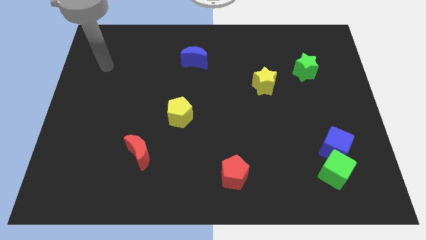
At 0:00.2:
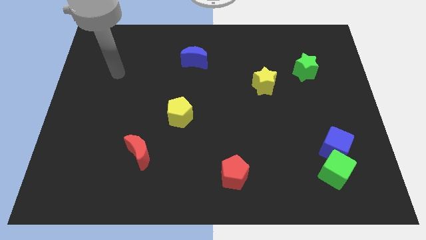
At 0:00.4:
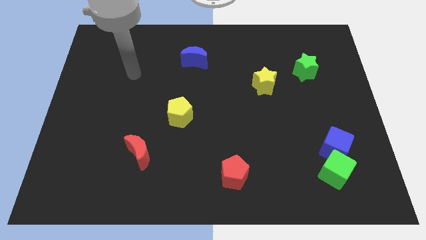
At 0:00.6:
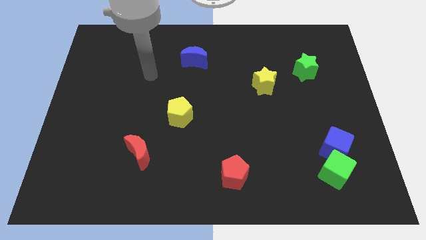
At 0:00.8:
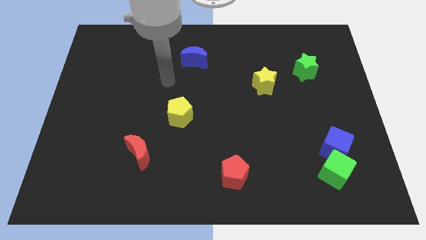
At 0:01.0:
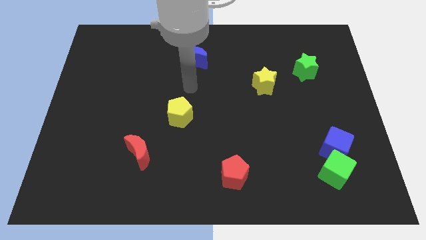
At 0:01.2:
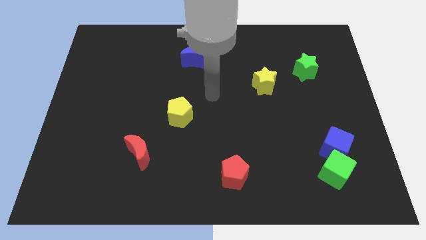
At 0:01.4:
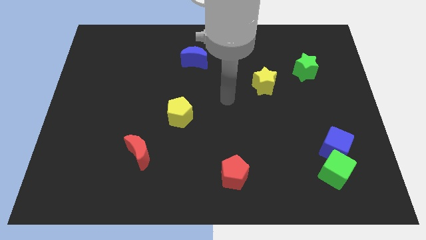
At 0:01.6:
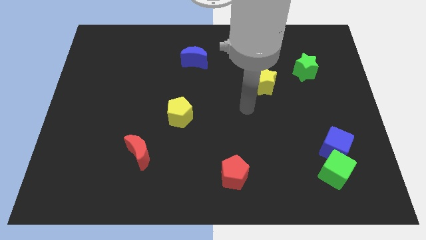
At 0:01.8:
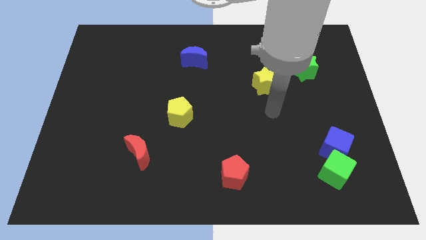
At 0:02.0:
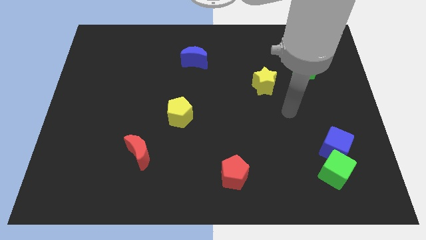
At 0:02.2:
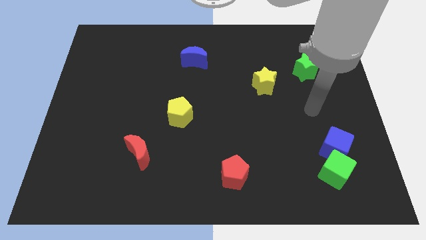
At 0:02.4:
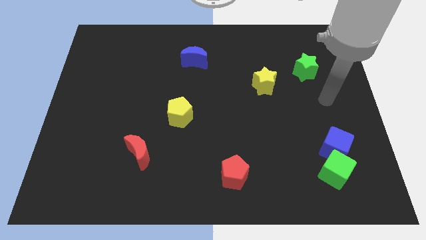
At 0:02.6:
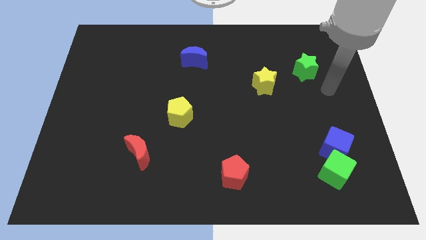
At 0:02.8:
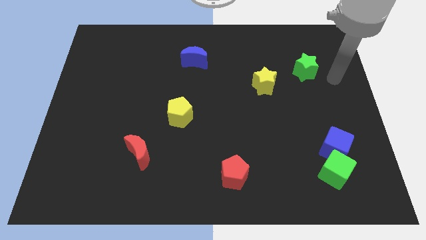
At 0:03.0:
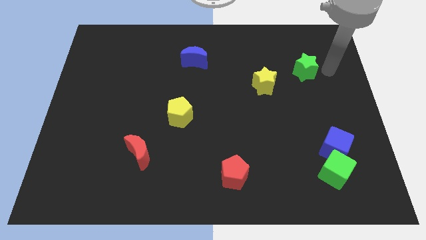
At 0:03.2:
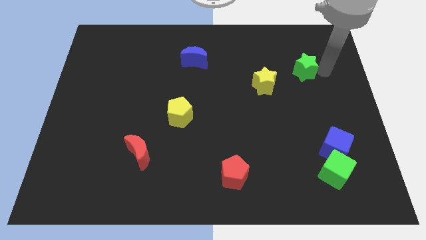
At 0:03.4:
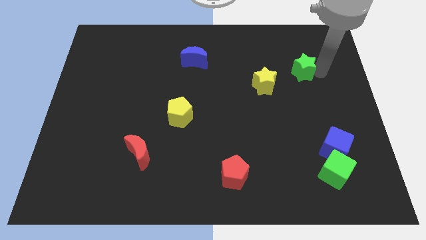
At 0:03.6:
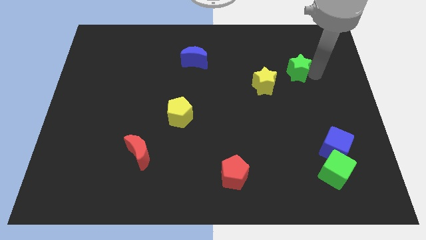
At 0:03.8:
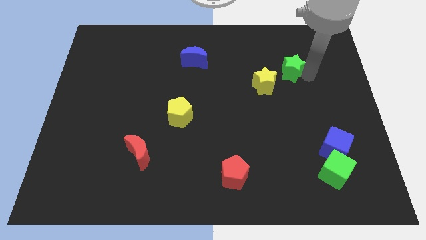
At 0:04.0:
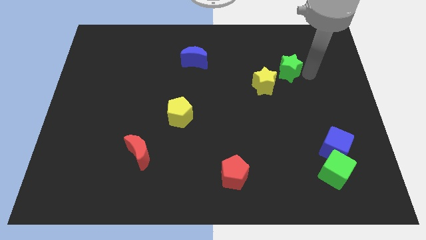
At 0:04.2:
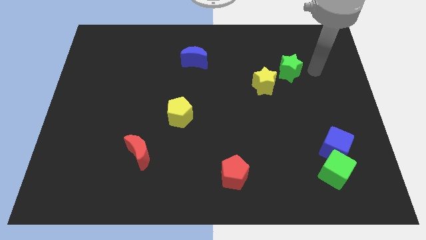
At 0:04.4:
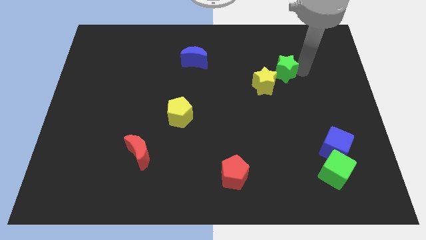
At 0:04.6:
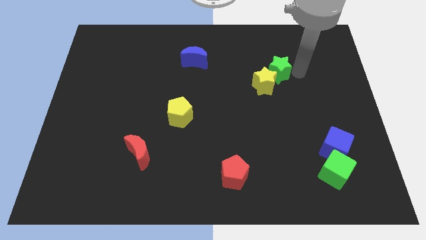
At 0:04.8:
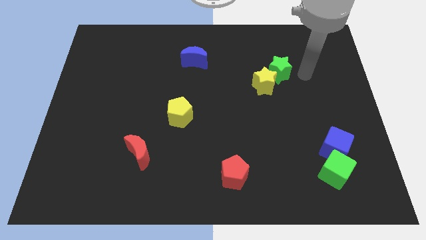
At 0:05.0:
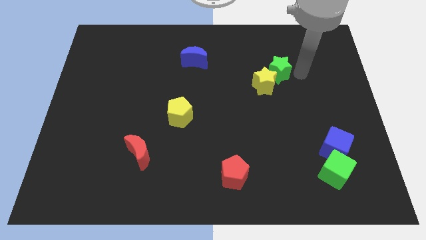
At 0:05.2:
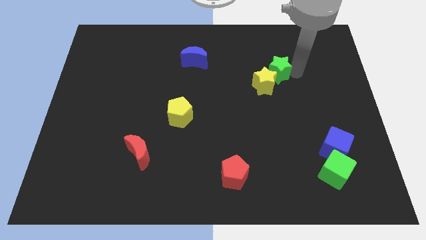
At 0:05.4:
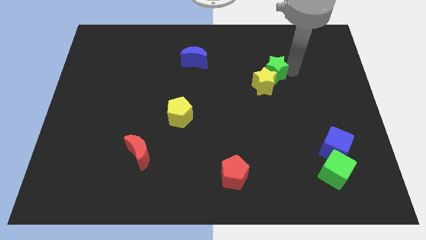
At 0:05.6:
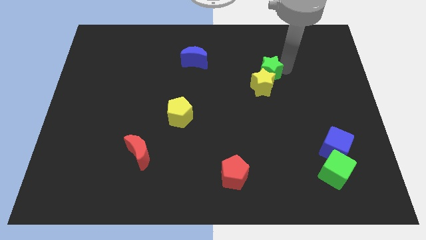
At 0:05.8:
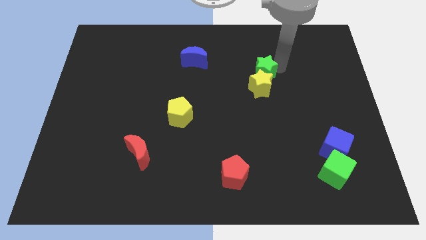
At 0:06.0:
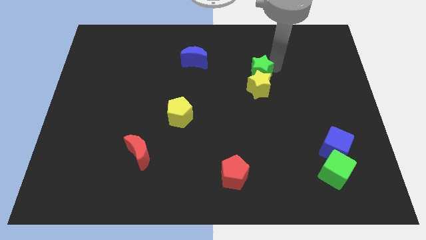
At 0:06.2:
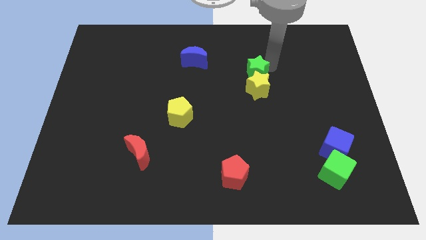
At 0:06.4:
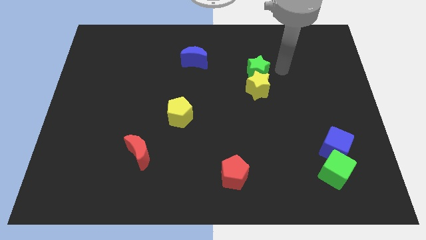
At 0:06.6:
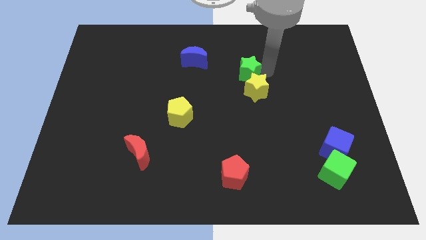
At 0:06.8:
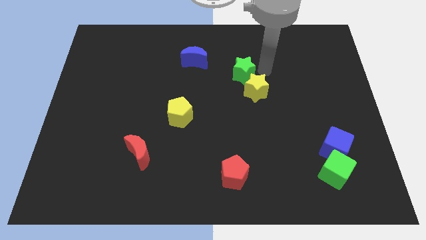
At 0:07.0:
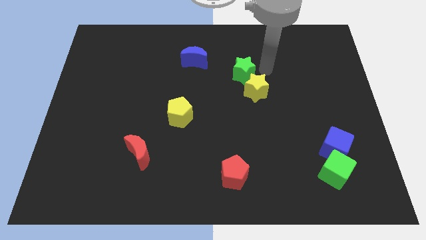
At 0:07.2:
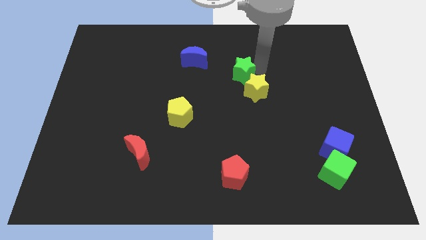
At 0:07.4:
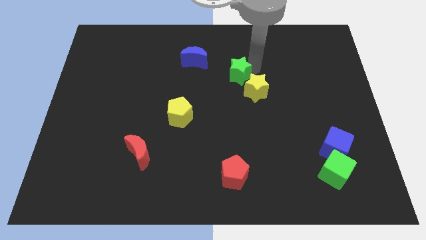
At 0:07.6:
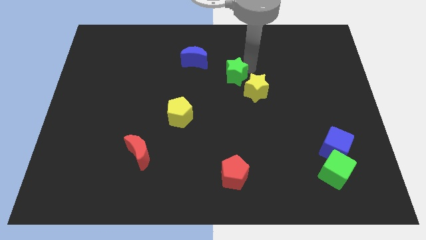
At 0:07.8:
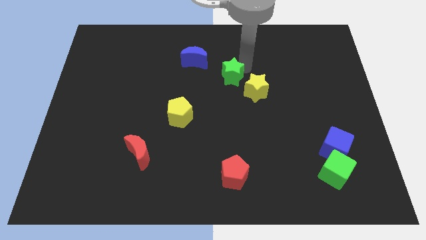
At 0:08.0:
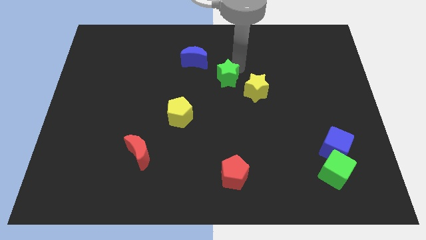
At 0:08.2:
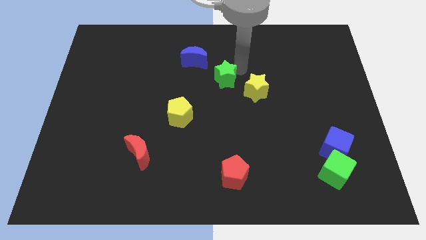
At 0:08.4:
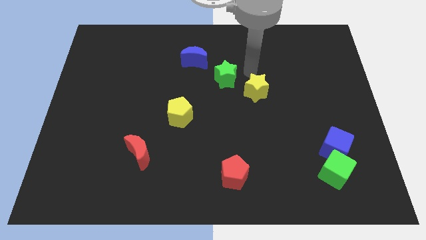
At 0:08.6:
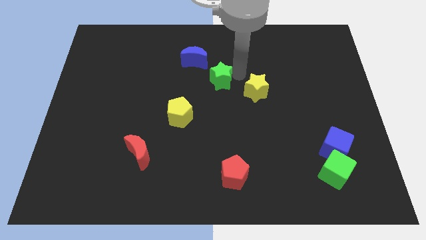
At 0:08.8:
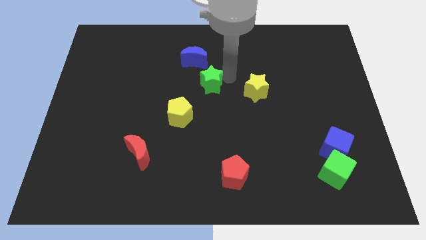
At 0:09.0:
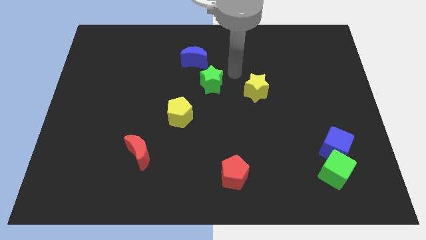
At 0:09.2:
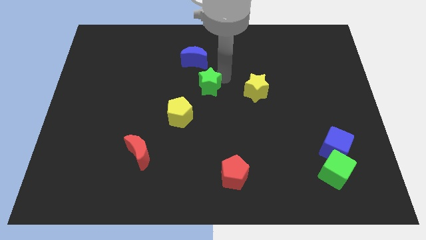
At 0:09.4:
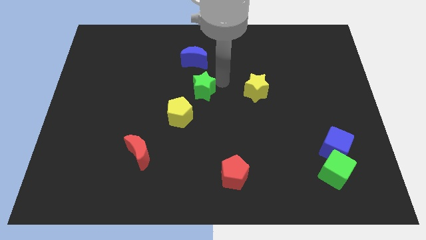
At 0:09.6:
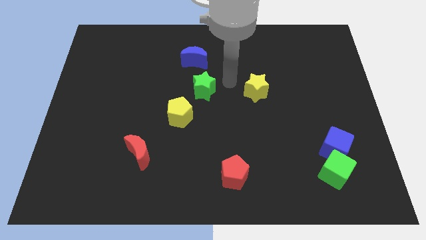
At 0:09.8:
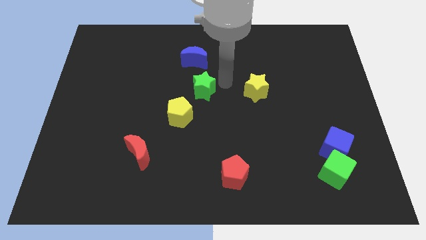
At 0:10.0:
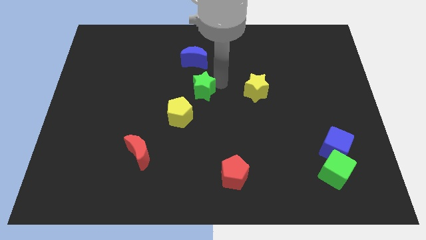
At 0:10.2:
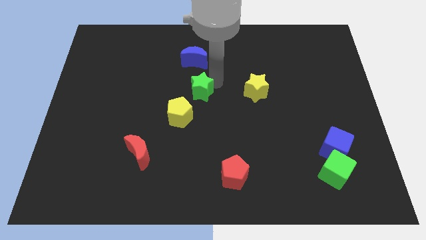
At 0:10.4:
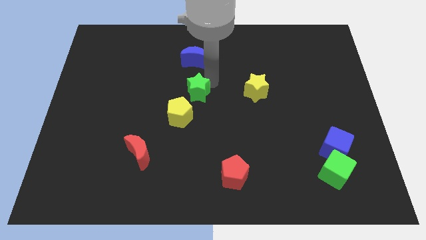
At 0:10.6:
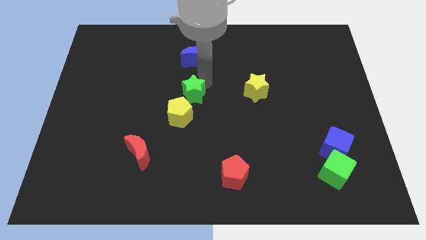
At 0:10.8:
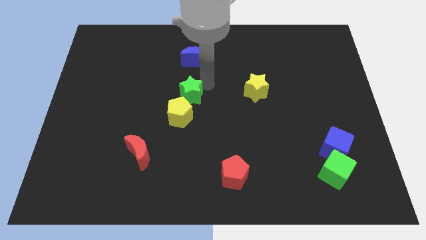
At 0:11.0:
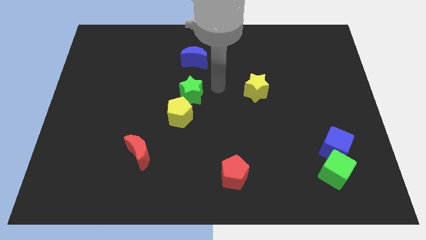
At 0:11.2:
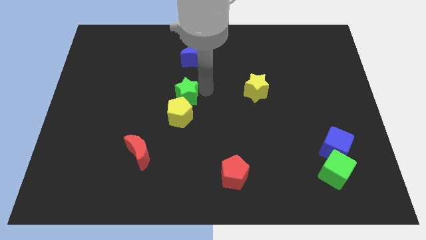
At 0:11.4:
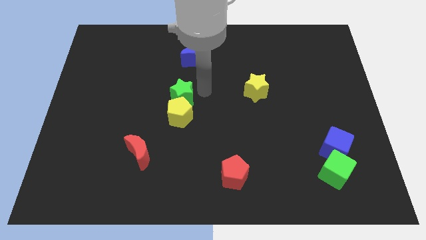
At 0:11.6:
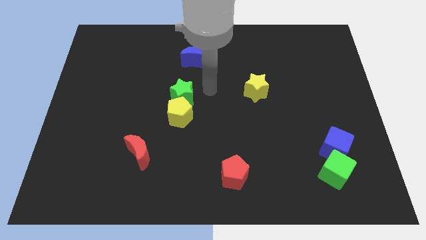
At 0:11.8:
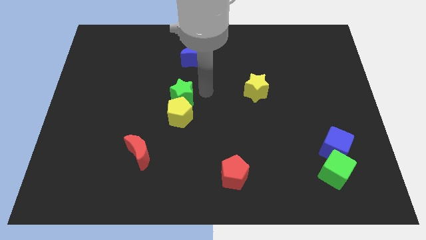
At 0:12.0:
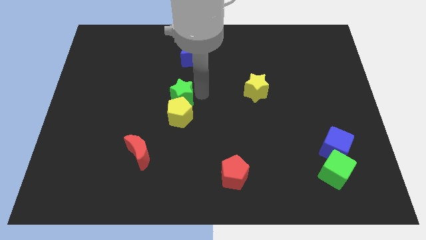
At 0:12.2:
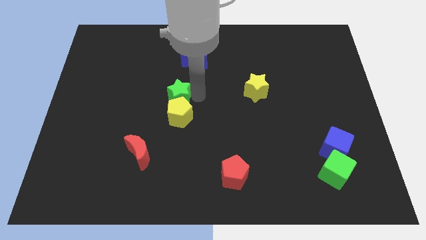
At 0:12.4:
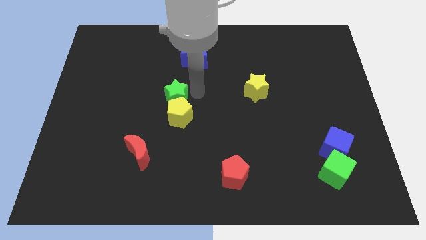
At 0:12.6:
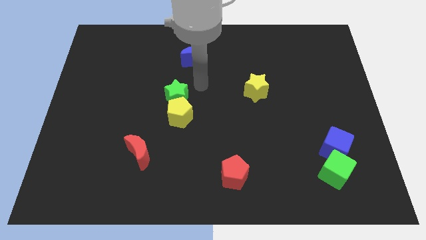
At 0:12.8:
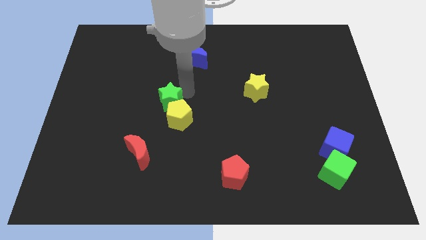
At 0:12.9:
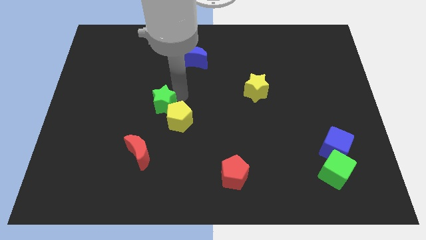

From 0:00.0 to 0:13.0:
move the green star to the top of the red moon

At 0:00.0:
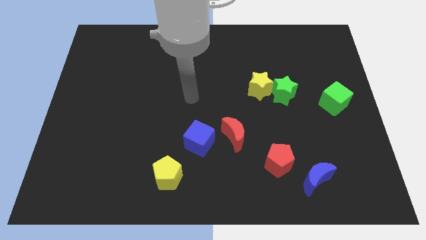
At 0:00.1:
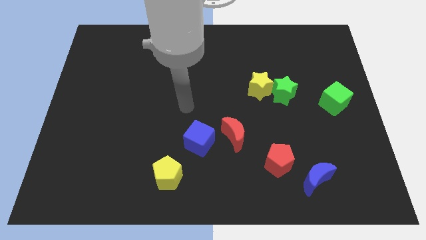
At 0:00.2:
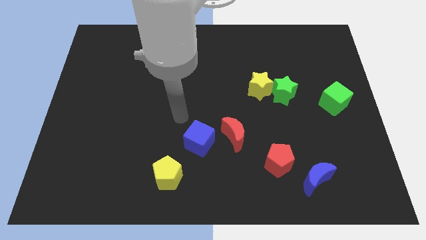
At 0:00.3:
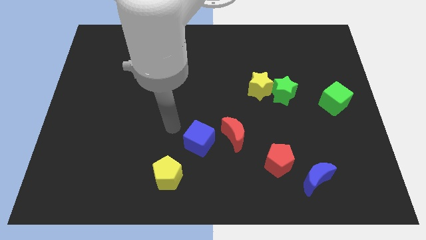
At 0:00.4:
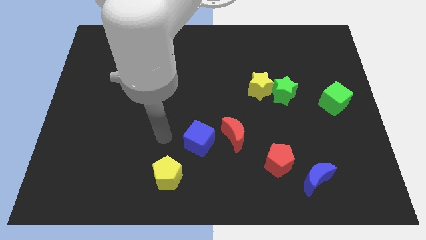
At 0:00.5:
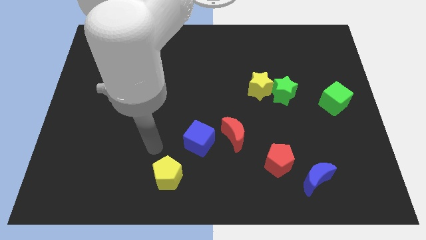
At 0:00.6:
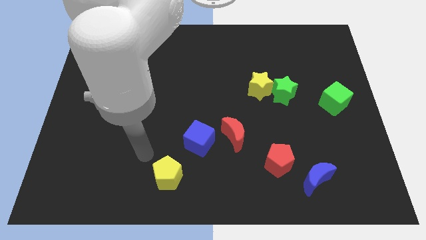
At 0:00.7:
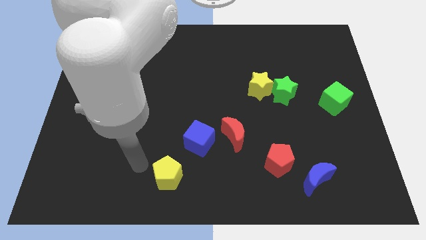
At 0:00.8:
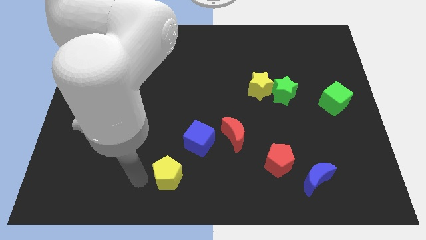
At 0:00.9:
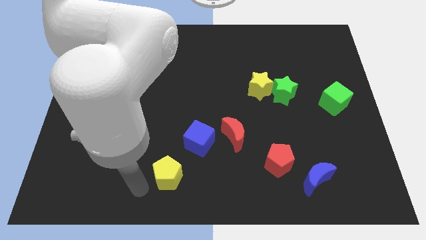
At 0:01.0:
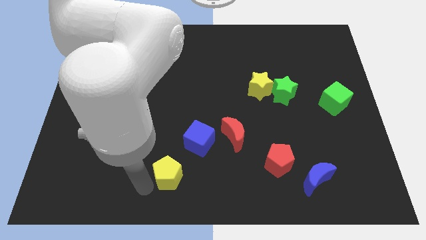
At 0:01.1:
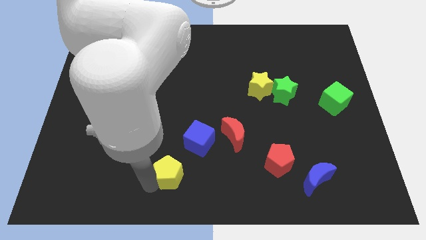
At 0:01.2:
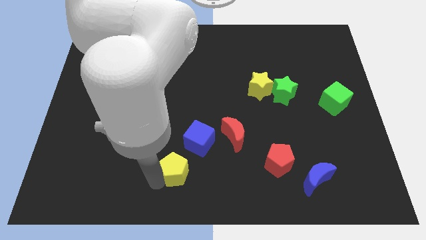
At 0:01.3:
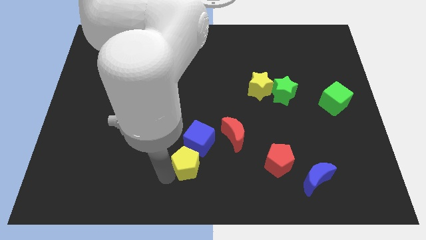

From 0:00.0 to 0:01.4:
slide the yellow pentagon to the bottom left of the red moon
